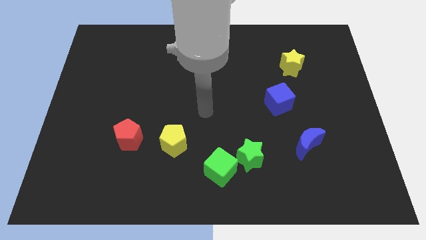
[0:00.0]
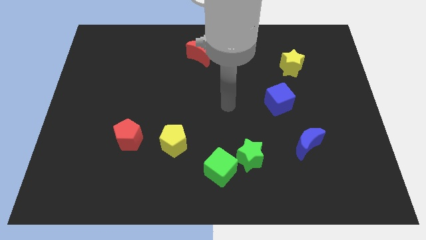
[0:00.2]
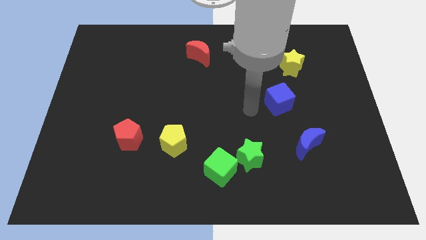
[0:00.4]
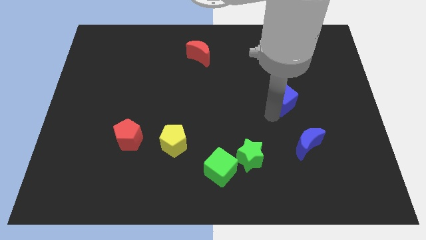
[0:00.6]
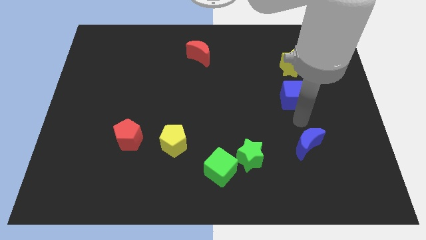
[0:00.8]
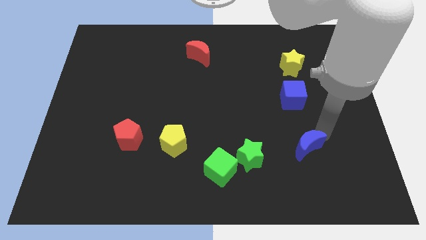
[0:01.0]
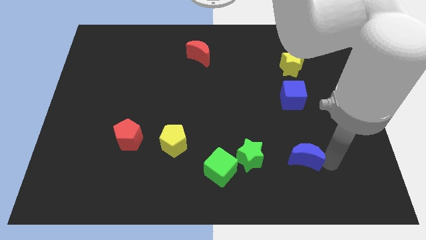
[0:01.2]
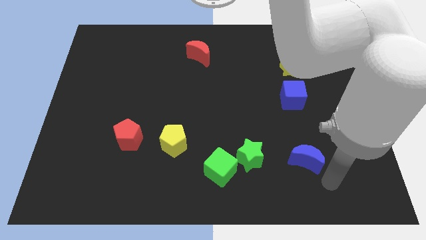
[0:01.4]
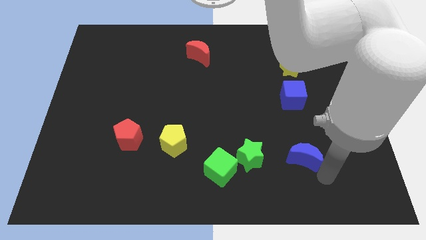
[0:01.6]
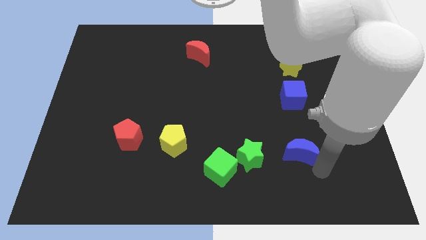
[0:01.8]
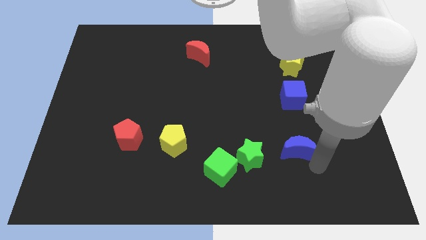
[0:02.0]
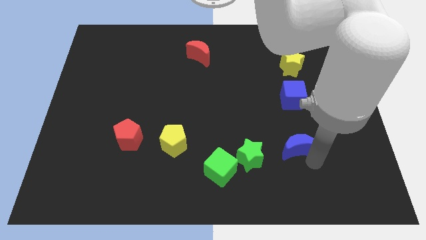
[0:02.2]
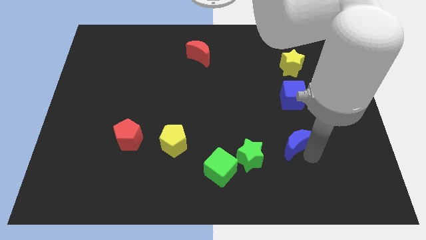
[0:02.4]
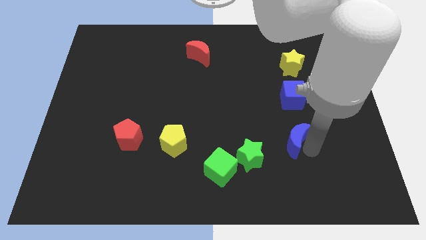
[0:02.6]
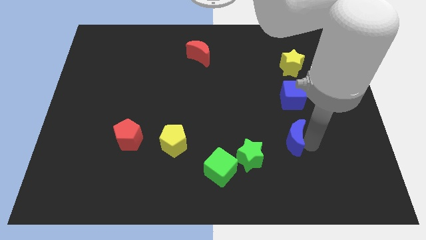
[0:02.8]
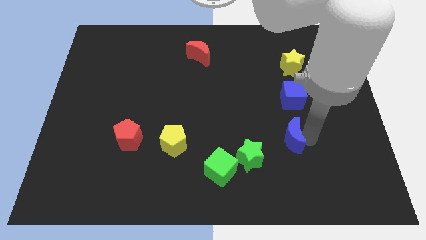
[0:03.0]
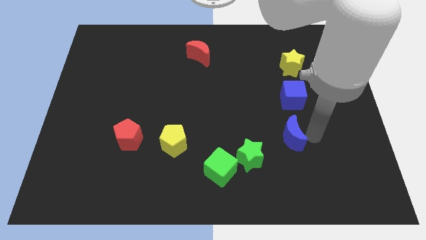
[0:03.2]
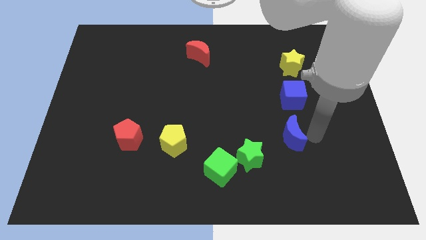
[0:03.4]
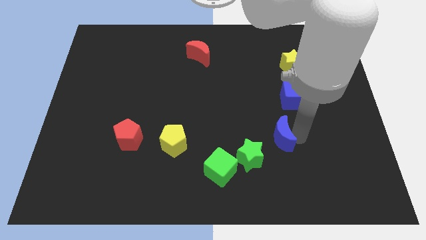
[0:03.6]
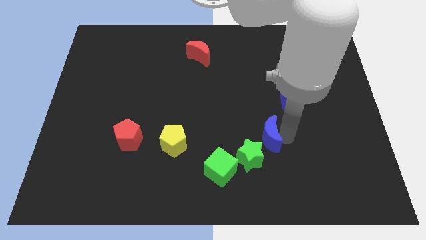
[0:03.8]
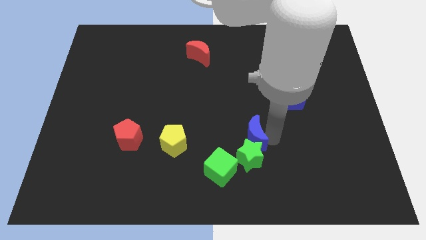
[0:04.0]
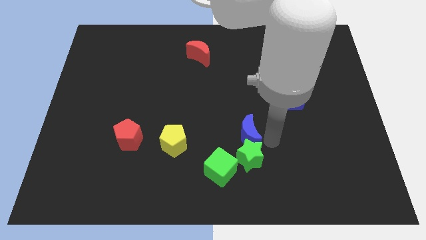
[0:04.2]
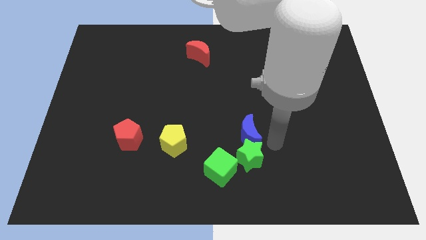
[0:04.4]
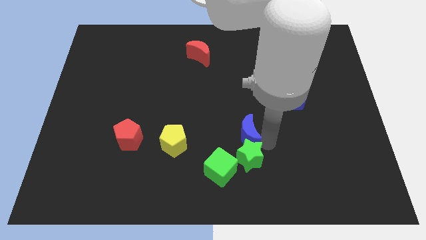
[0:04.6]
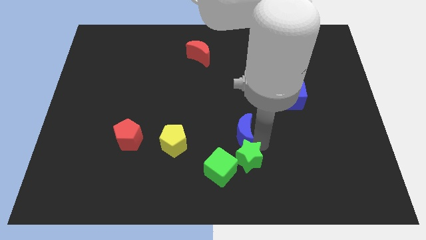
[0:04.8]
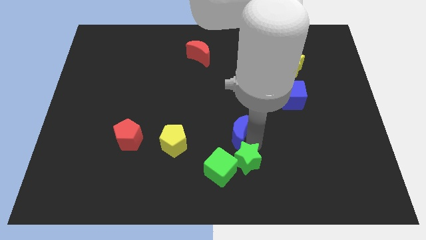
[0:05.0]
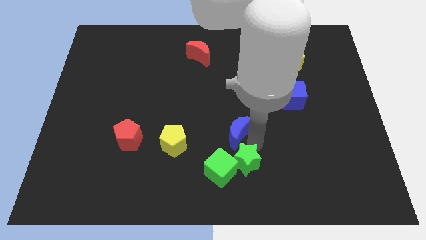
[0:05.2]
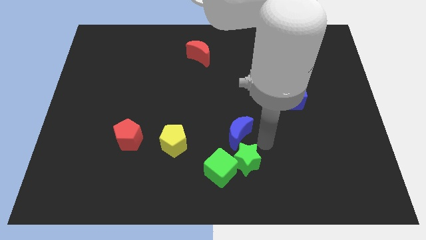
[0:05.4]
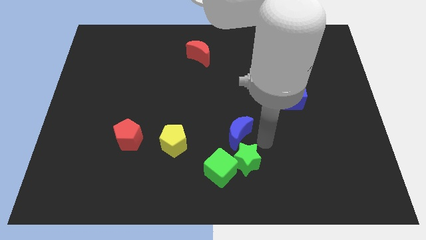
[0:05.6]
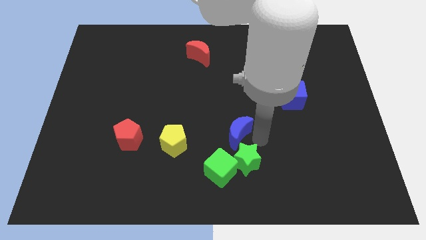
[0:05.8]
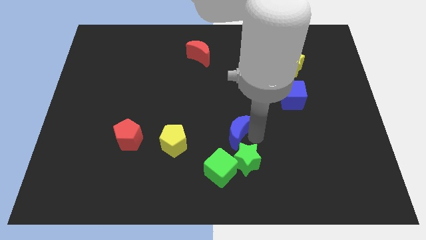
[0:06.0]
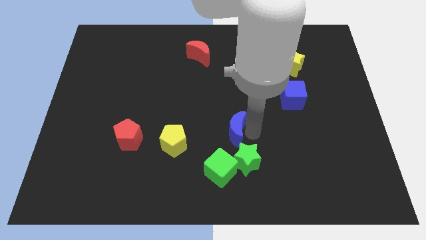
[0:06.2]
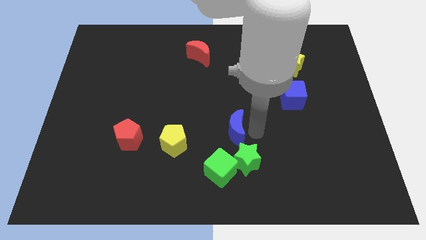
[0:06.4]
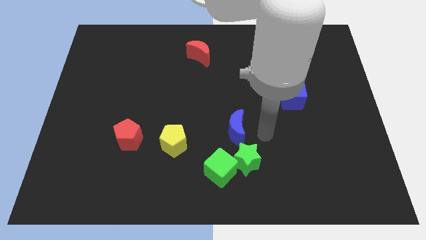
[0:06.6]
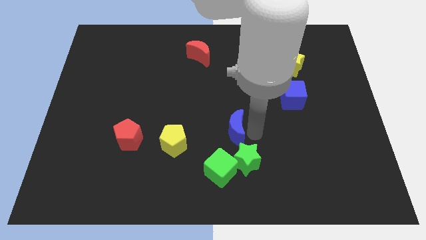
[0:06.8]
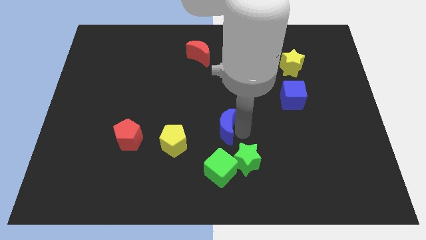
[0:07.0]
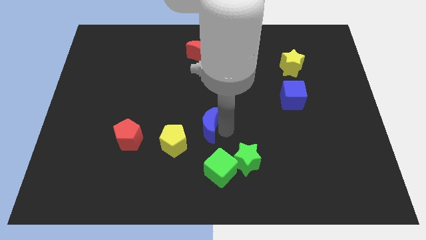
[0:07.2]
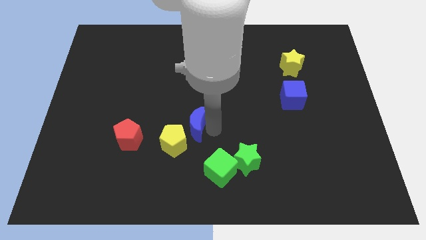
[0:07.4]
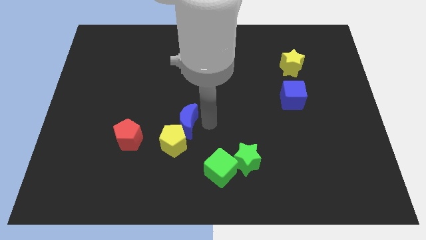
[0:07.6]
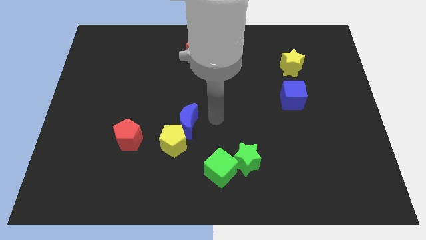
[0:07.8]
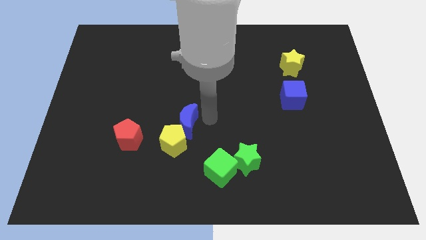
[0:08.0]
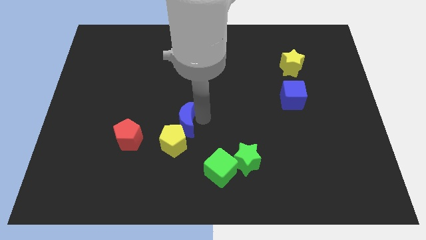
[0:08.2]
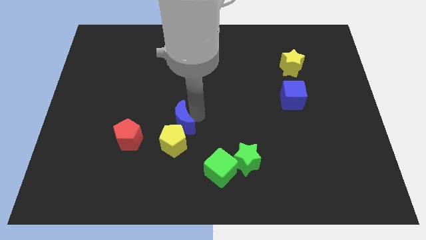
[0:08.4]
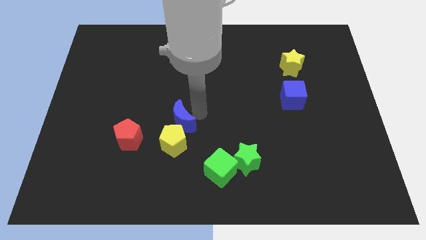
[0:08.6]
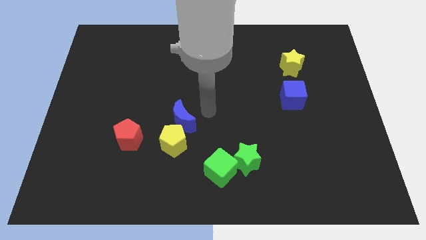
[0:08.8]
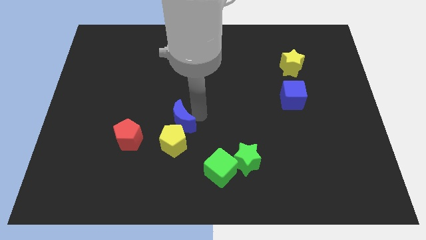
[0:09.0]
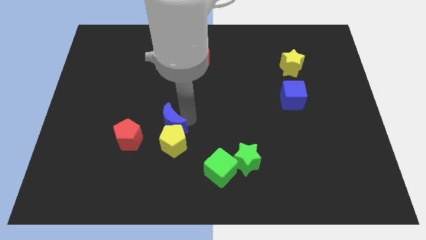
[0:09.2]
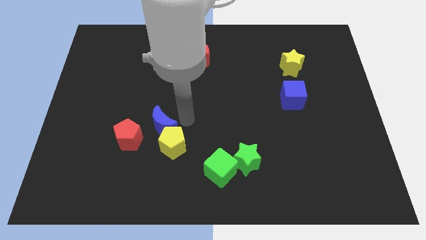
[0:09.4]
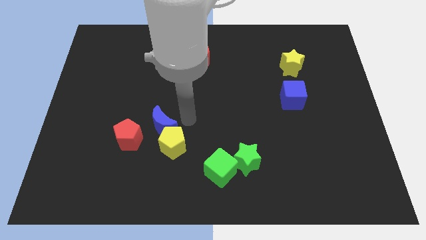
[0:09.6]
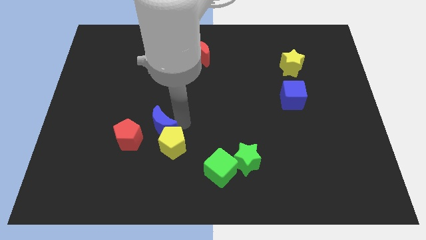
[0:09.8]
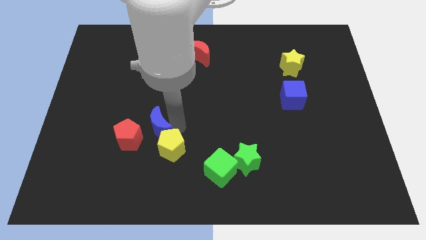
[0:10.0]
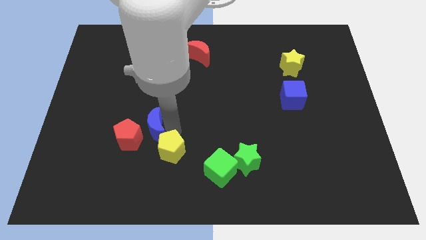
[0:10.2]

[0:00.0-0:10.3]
put the blue moon to the red pentagon

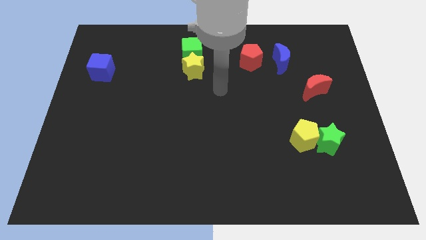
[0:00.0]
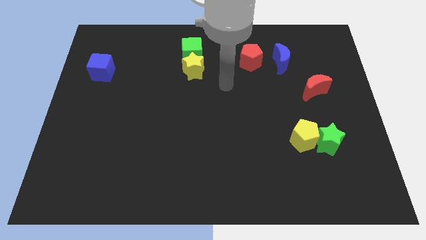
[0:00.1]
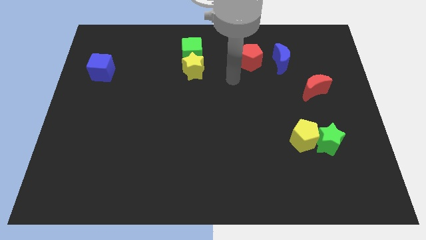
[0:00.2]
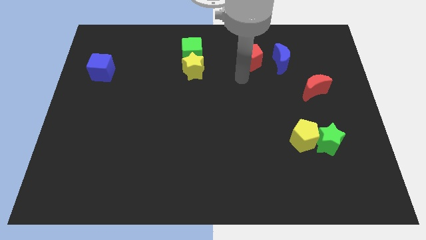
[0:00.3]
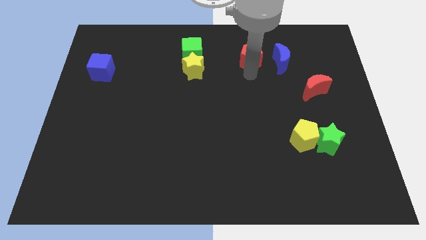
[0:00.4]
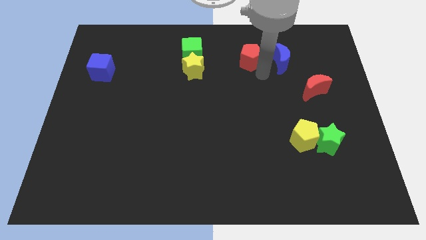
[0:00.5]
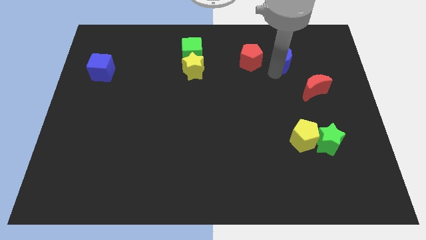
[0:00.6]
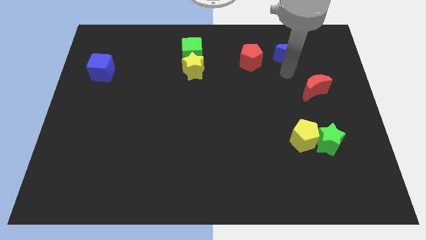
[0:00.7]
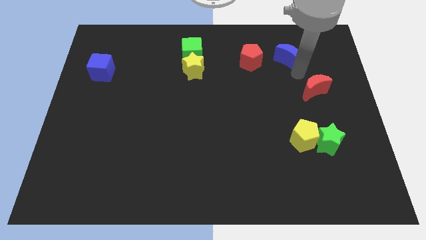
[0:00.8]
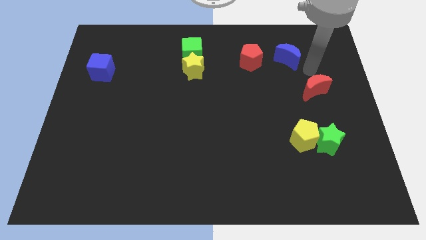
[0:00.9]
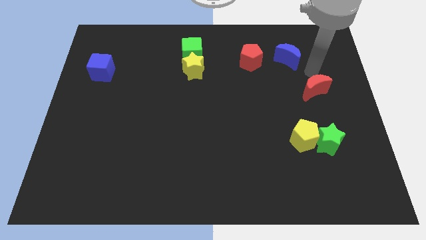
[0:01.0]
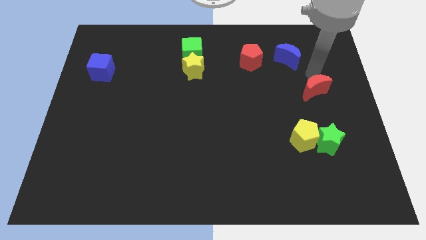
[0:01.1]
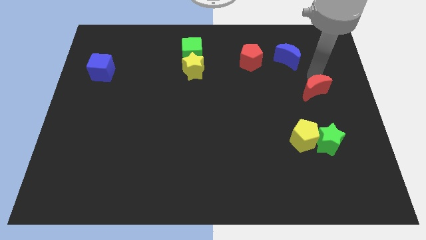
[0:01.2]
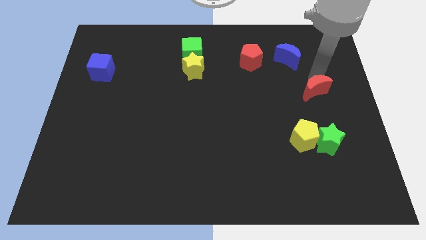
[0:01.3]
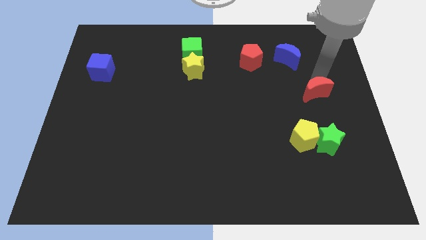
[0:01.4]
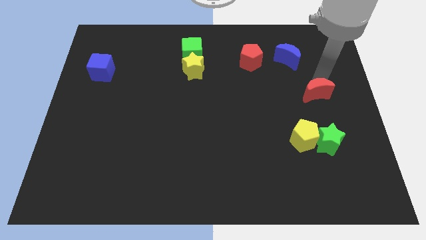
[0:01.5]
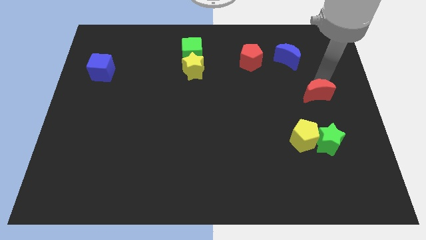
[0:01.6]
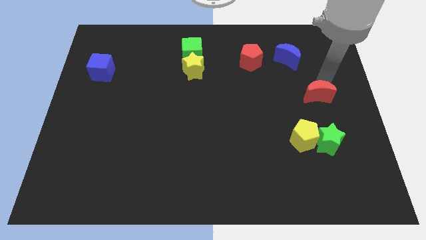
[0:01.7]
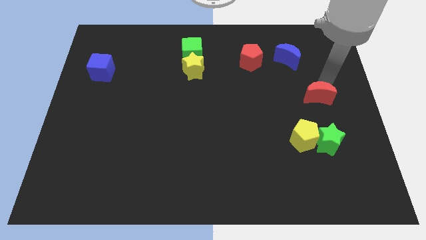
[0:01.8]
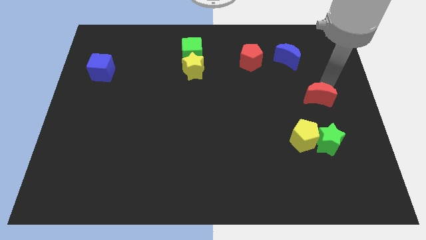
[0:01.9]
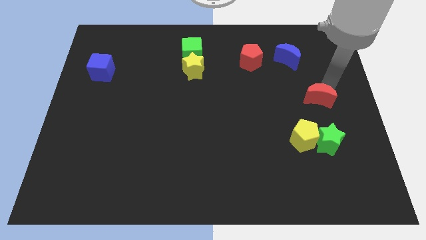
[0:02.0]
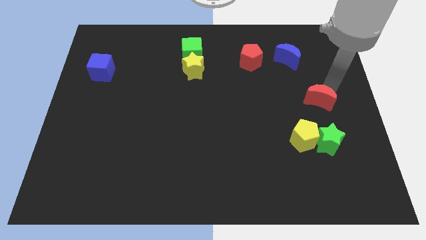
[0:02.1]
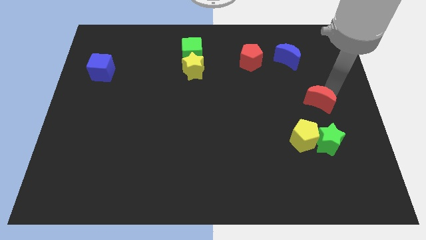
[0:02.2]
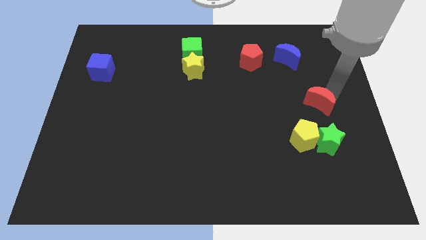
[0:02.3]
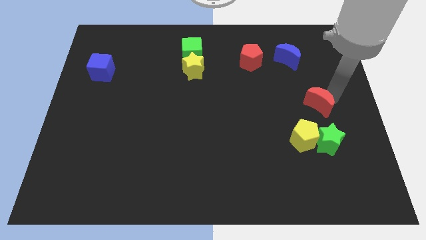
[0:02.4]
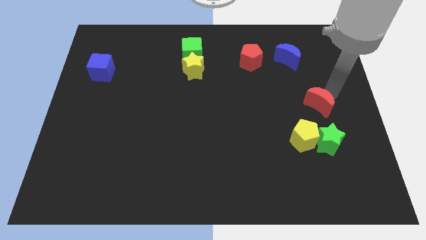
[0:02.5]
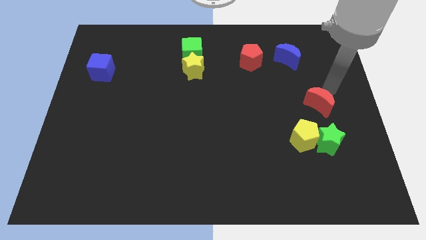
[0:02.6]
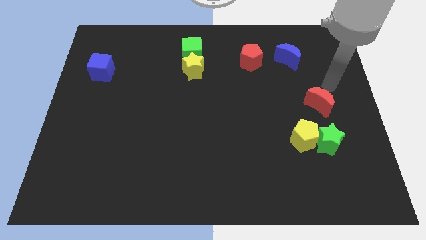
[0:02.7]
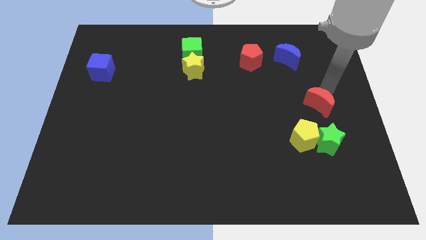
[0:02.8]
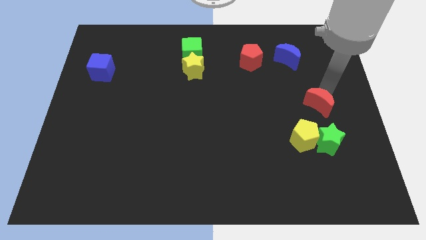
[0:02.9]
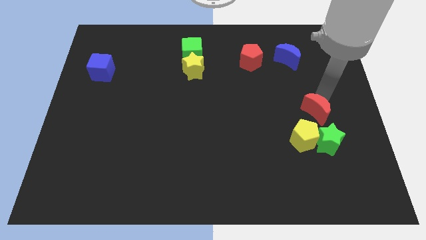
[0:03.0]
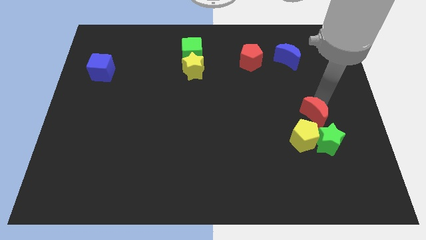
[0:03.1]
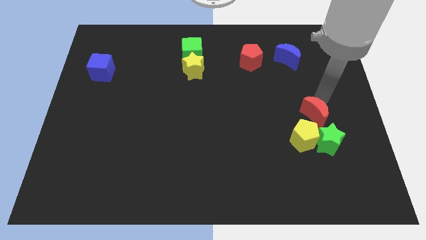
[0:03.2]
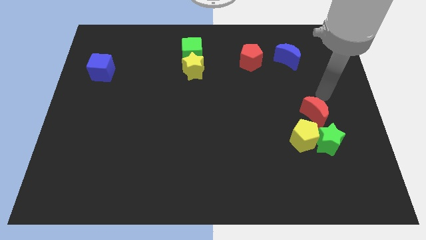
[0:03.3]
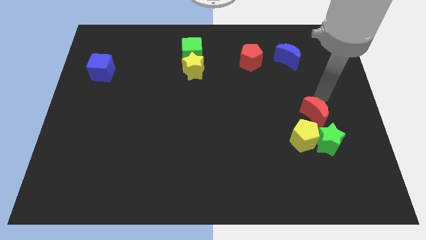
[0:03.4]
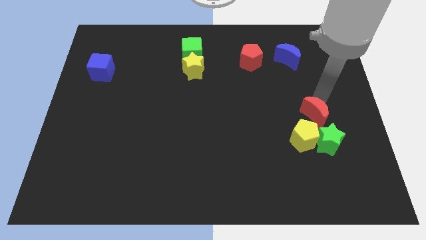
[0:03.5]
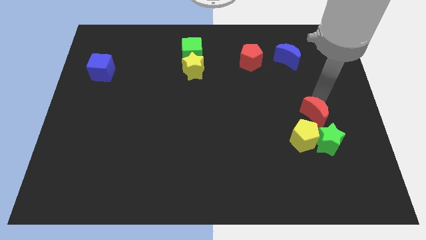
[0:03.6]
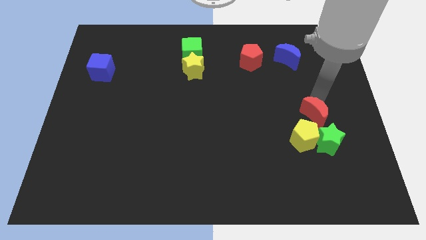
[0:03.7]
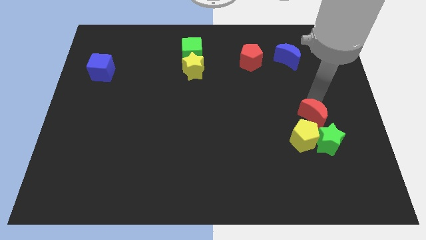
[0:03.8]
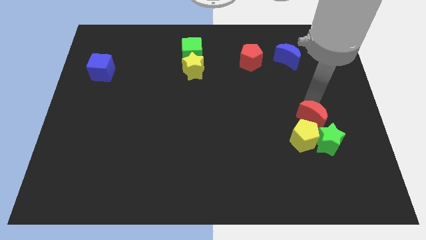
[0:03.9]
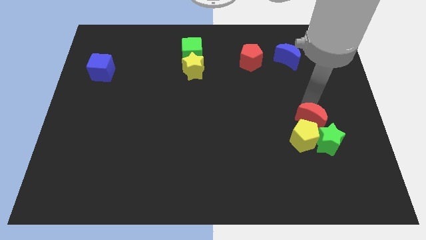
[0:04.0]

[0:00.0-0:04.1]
slide the red moon towards the yellow pentagon
